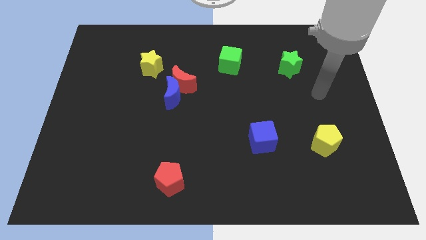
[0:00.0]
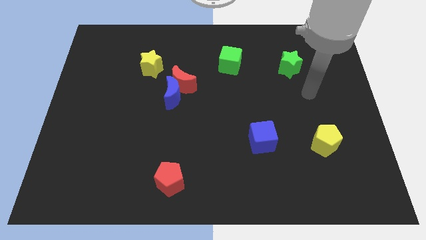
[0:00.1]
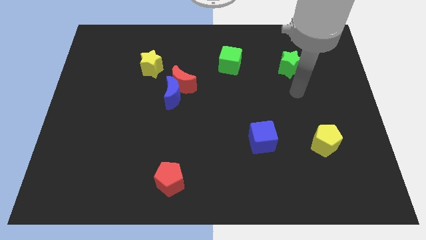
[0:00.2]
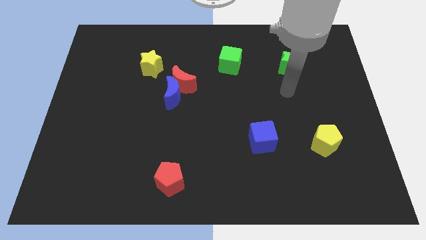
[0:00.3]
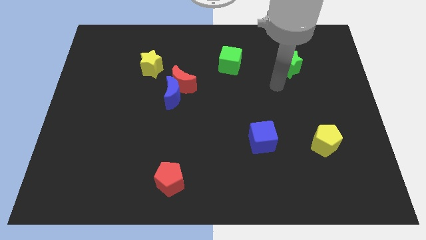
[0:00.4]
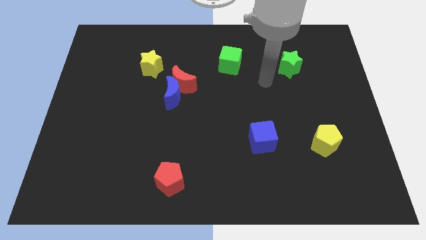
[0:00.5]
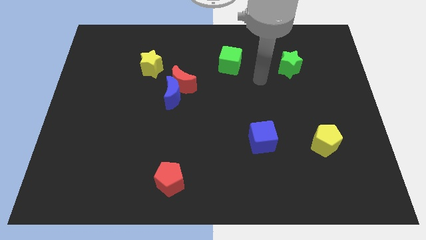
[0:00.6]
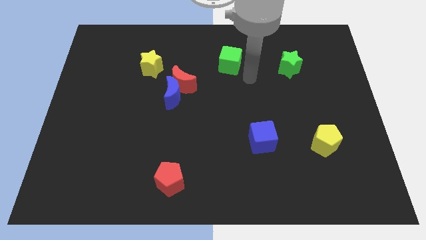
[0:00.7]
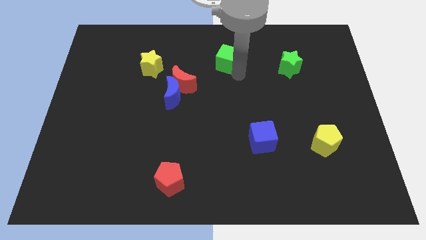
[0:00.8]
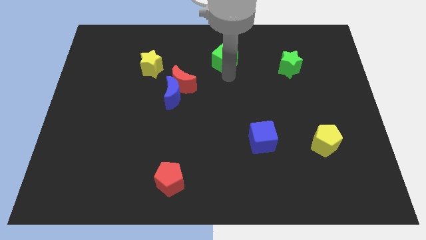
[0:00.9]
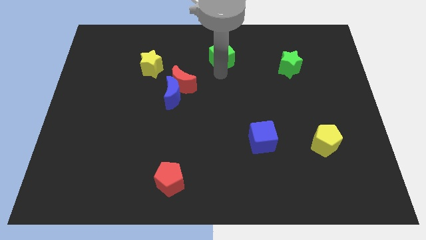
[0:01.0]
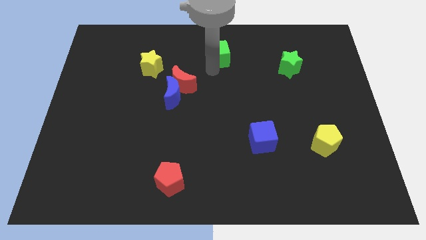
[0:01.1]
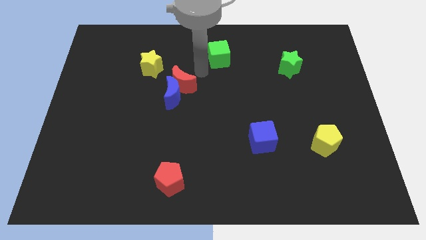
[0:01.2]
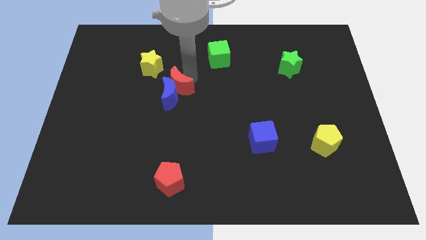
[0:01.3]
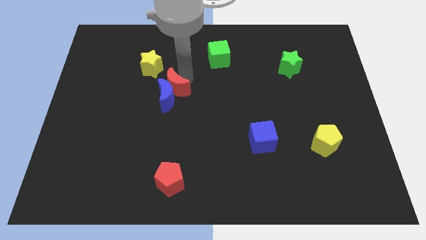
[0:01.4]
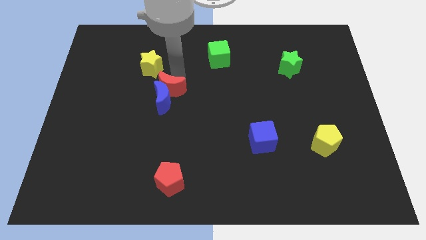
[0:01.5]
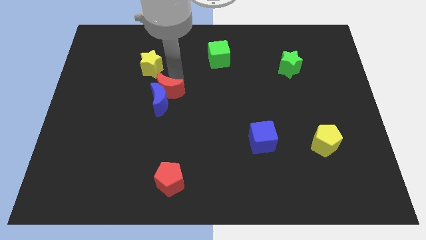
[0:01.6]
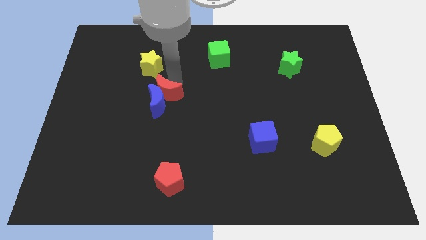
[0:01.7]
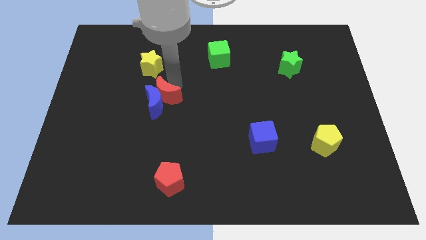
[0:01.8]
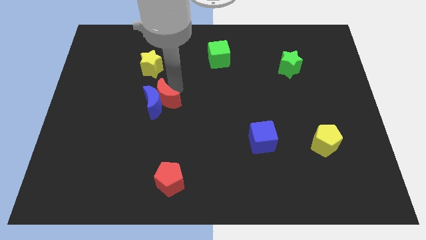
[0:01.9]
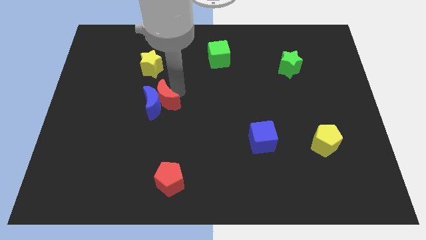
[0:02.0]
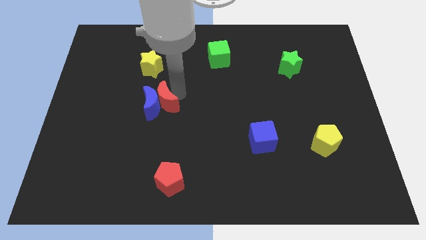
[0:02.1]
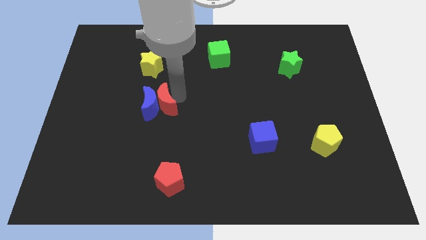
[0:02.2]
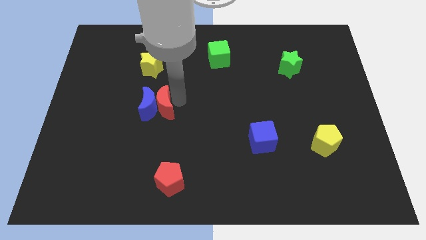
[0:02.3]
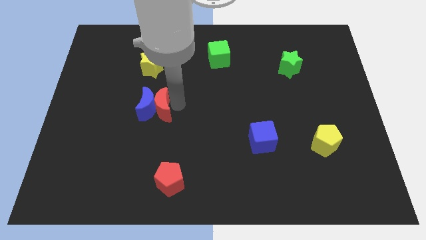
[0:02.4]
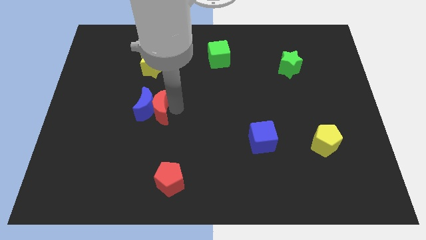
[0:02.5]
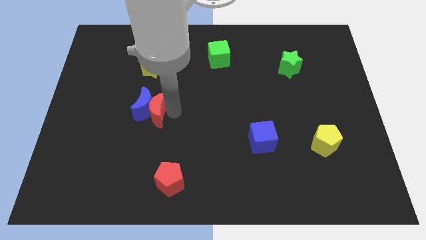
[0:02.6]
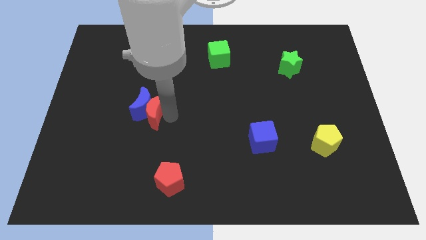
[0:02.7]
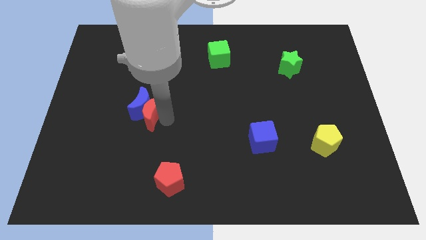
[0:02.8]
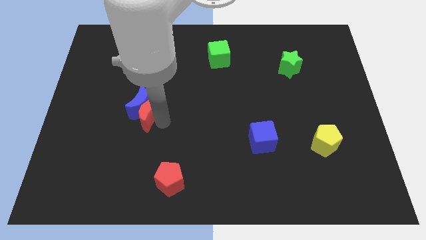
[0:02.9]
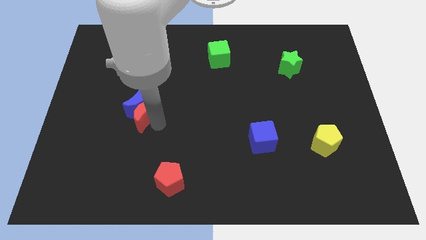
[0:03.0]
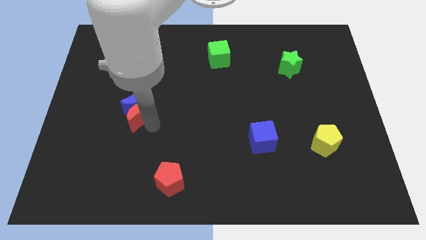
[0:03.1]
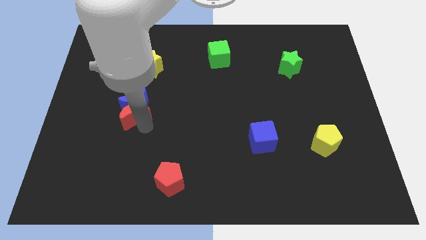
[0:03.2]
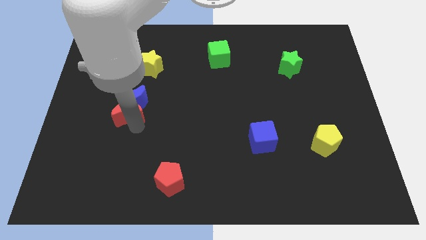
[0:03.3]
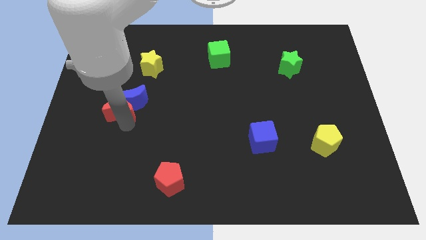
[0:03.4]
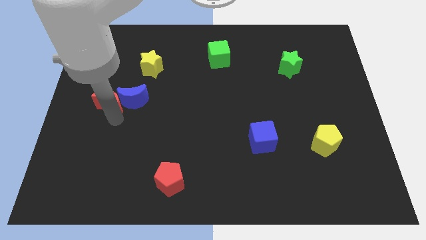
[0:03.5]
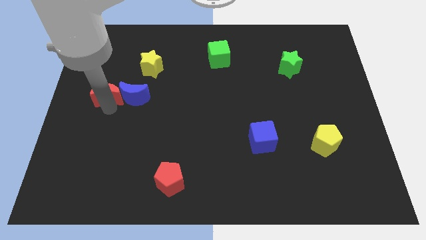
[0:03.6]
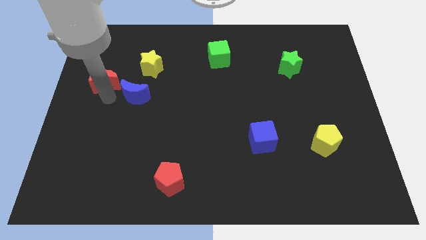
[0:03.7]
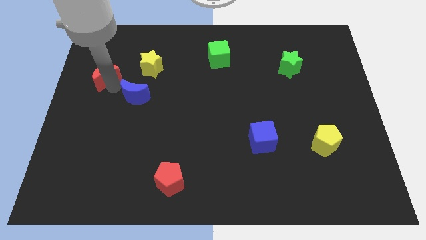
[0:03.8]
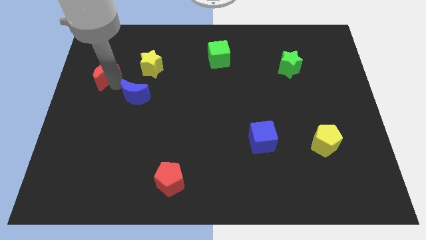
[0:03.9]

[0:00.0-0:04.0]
pull the blue moon apart from the red moon

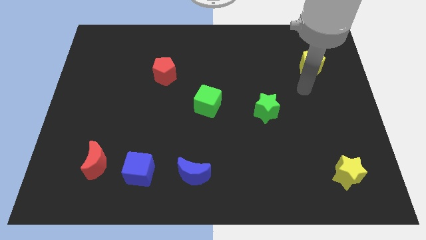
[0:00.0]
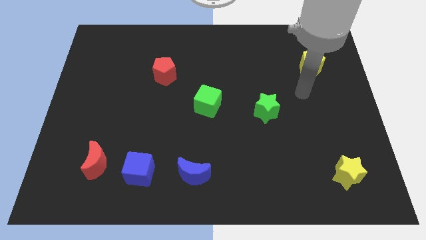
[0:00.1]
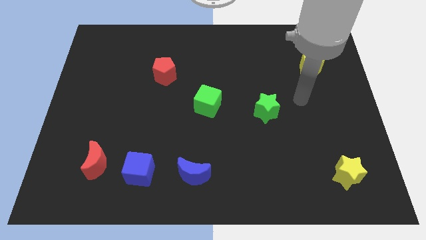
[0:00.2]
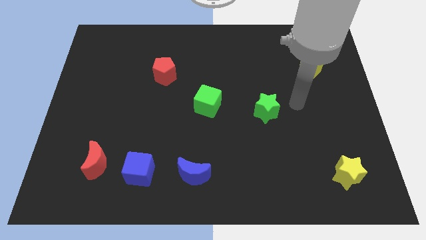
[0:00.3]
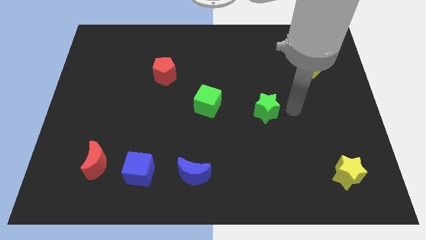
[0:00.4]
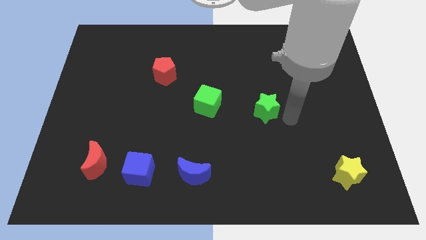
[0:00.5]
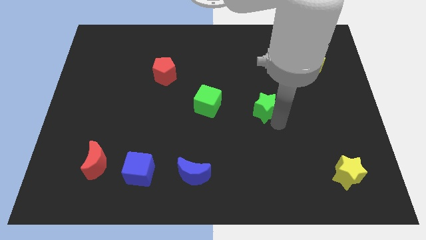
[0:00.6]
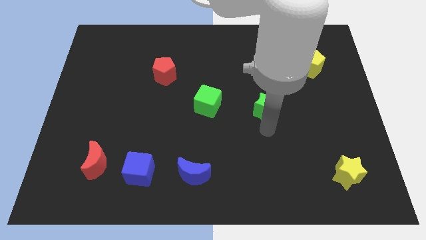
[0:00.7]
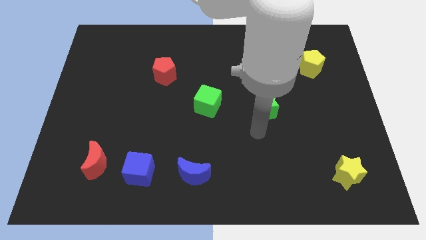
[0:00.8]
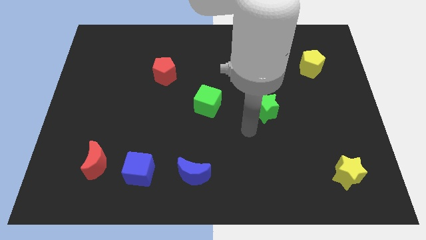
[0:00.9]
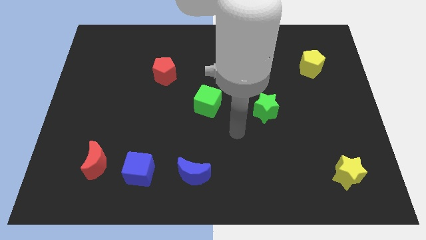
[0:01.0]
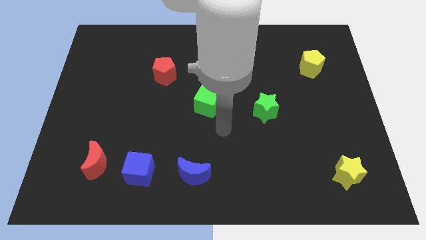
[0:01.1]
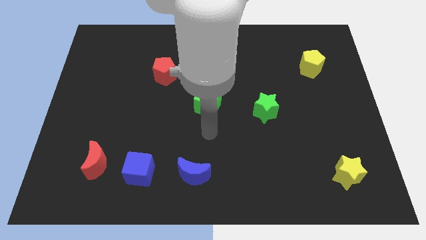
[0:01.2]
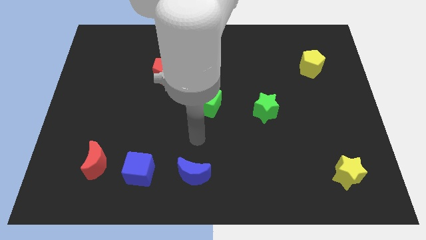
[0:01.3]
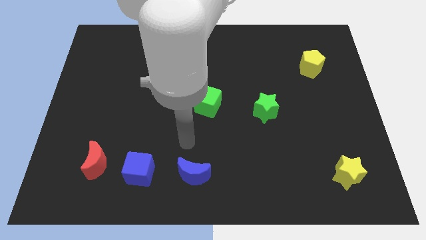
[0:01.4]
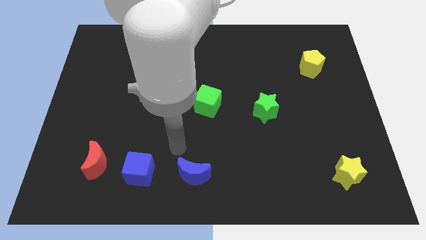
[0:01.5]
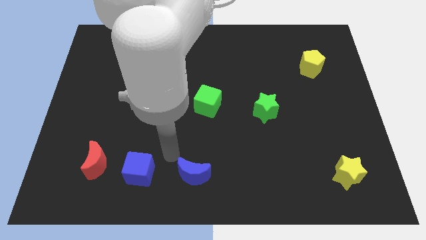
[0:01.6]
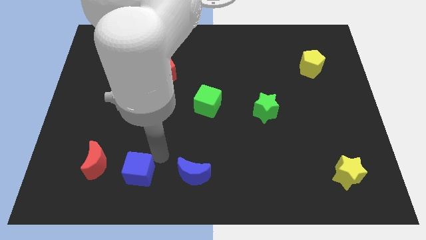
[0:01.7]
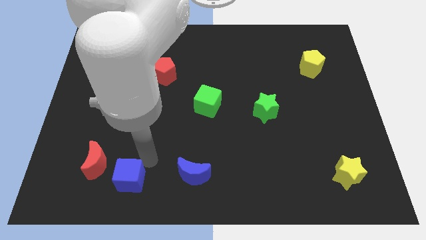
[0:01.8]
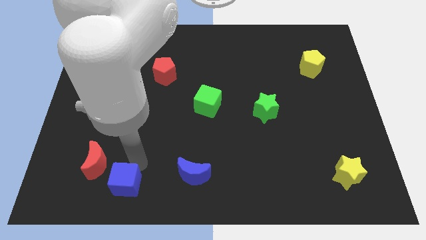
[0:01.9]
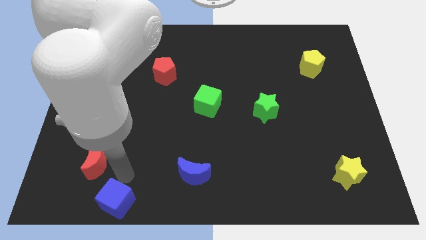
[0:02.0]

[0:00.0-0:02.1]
pull the red moon apart from the blue cube

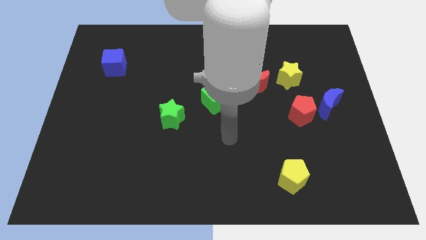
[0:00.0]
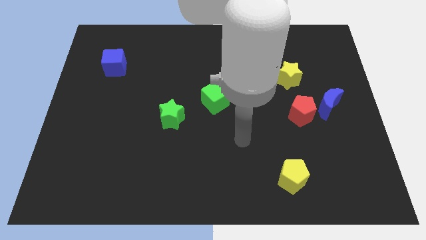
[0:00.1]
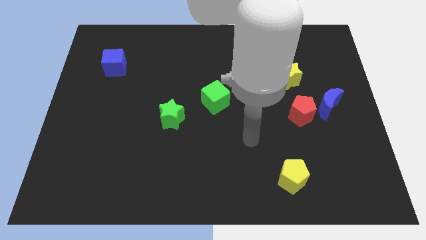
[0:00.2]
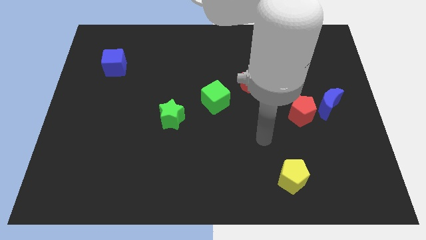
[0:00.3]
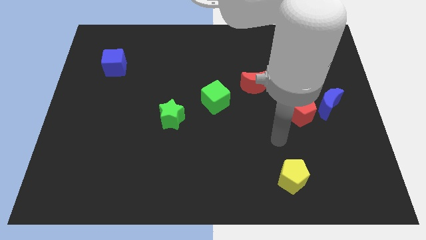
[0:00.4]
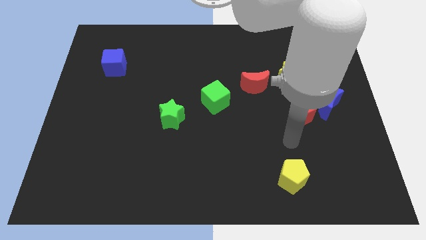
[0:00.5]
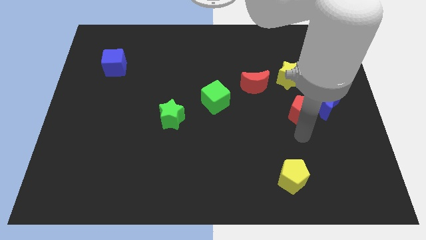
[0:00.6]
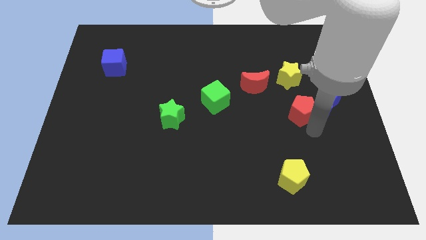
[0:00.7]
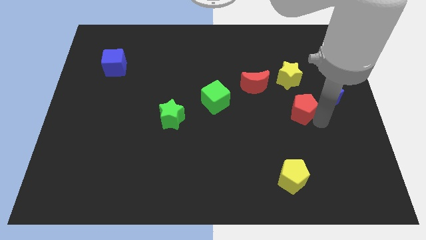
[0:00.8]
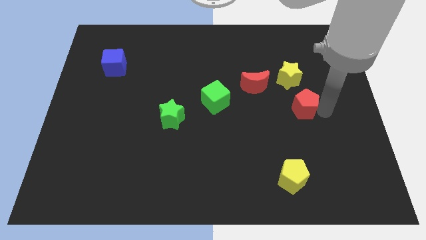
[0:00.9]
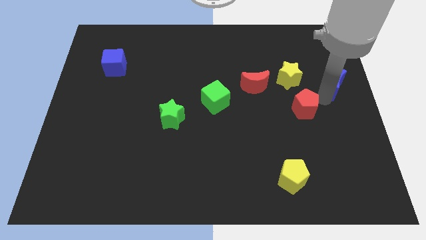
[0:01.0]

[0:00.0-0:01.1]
move the red pentagon away from the blue moon

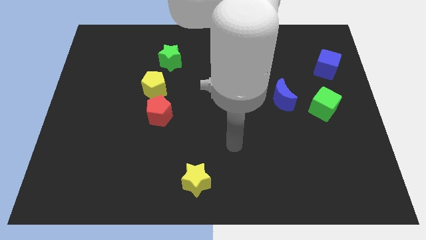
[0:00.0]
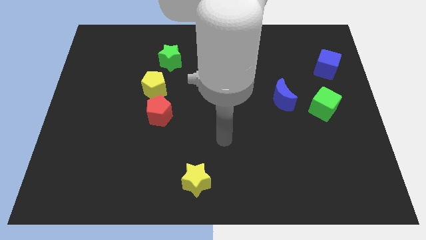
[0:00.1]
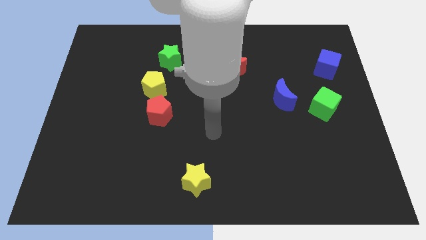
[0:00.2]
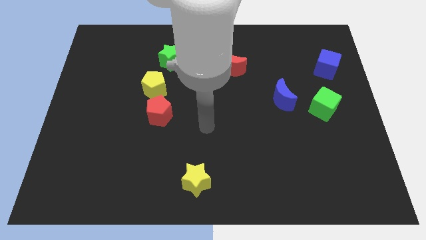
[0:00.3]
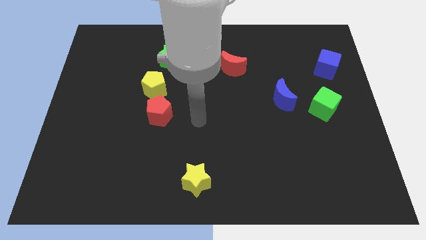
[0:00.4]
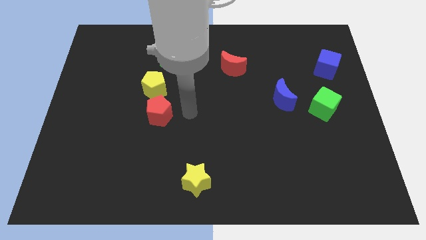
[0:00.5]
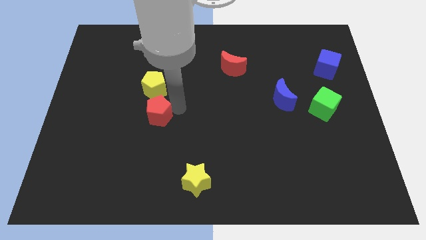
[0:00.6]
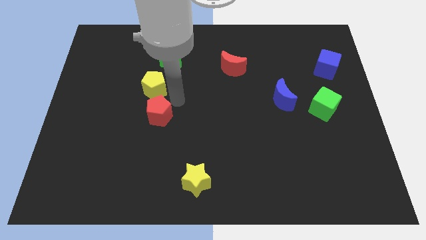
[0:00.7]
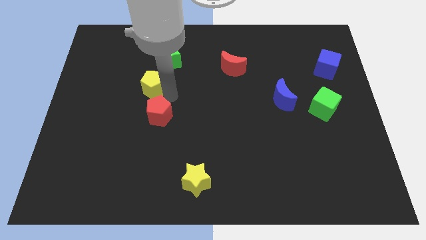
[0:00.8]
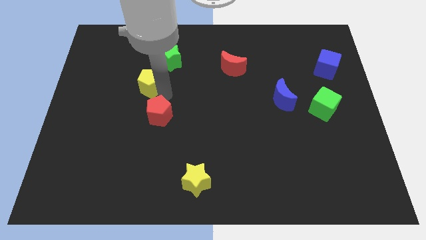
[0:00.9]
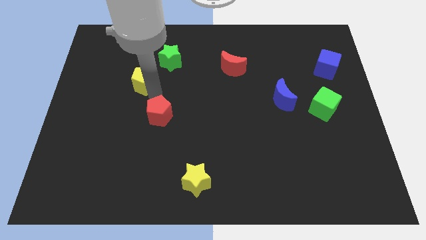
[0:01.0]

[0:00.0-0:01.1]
separate the red pentagon from the yellow pentagon

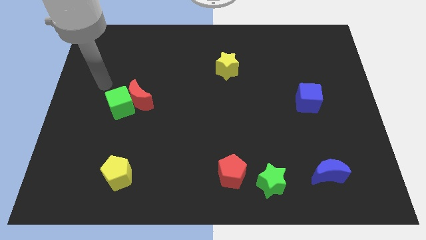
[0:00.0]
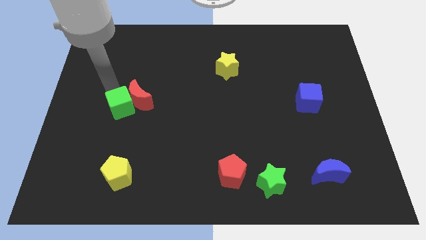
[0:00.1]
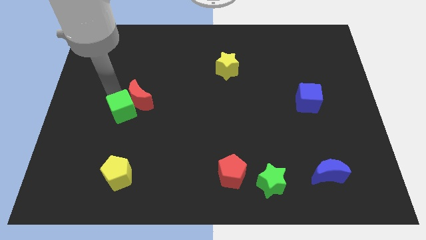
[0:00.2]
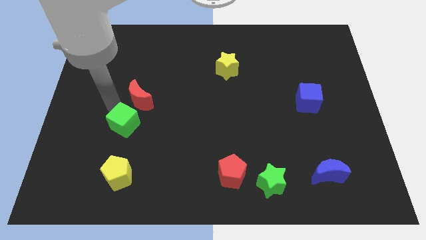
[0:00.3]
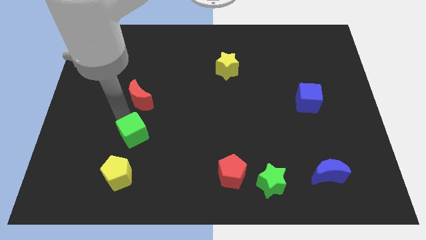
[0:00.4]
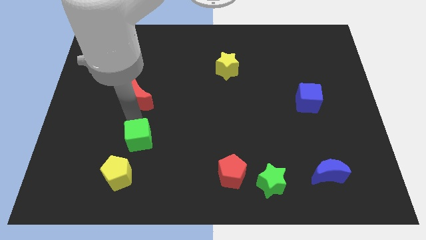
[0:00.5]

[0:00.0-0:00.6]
move the red moon away from the green cube

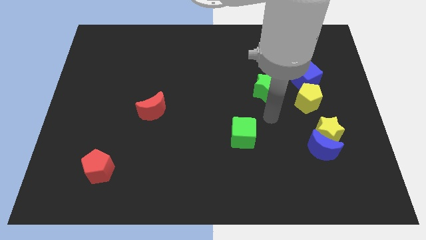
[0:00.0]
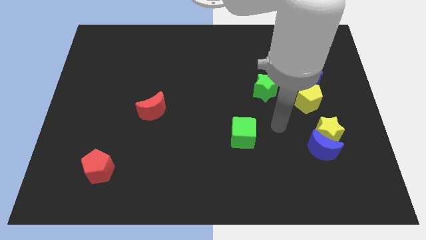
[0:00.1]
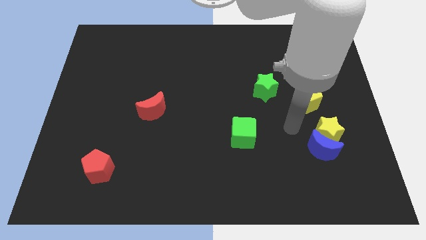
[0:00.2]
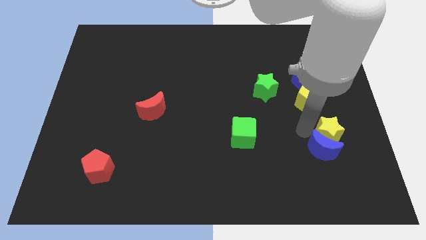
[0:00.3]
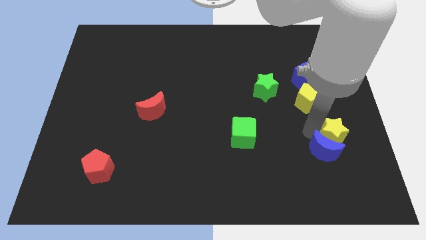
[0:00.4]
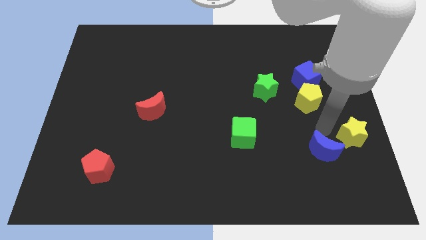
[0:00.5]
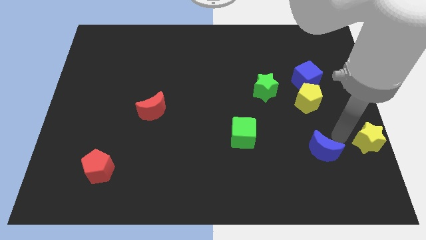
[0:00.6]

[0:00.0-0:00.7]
move the blue moon away from the yellow star
